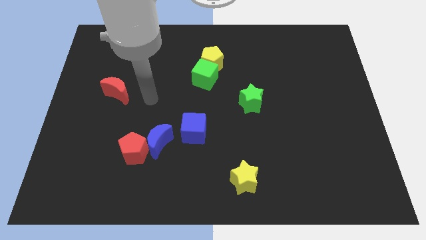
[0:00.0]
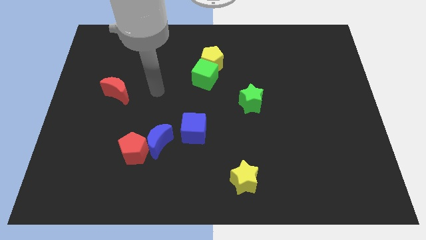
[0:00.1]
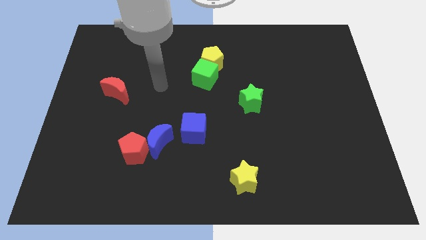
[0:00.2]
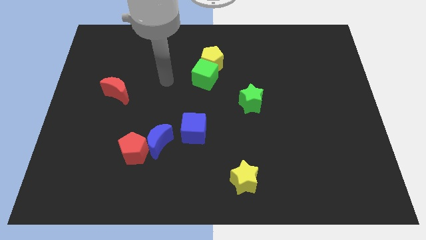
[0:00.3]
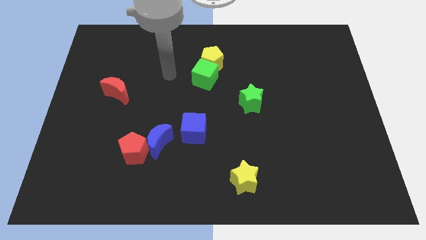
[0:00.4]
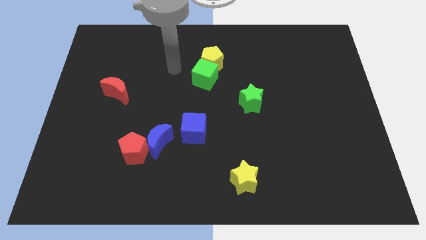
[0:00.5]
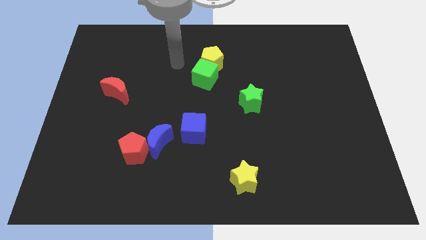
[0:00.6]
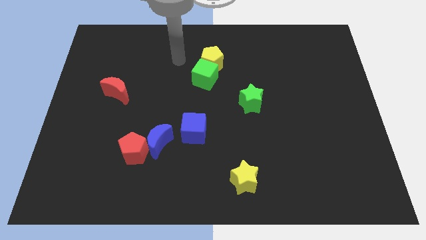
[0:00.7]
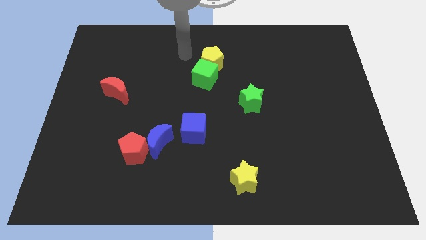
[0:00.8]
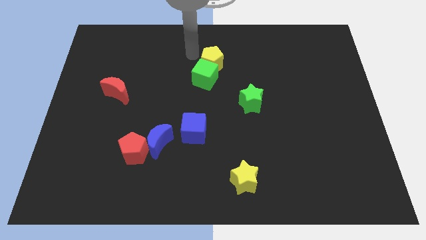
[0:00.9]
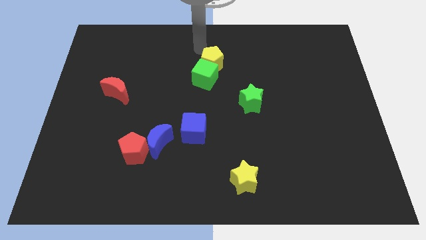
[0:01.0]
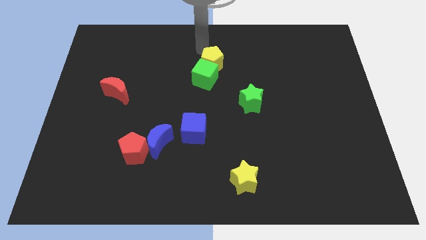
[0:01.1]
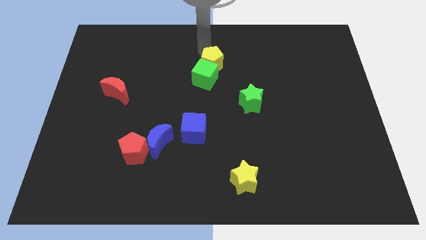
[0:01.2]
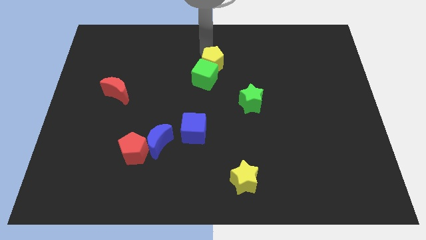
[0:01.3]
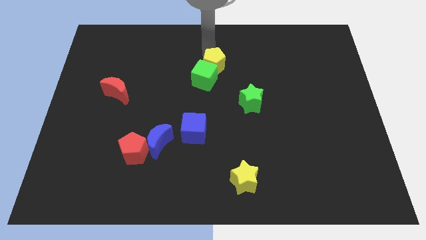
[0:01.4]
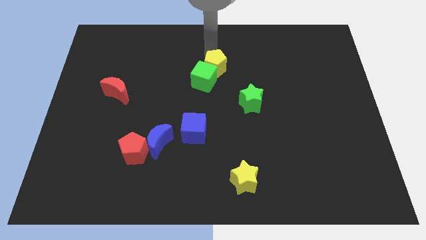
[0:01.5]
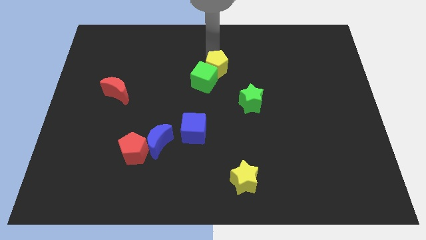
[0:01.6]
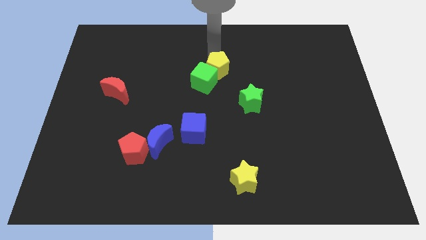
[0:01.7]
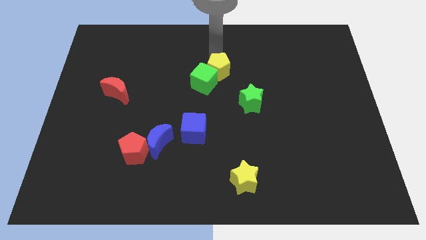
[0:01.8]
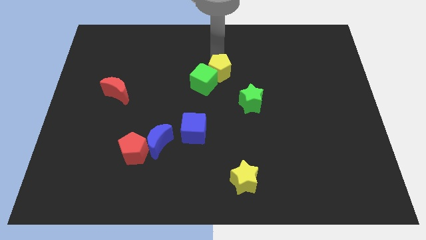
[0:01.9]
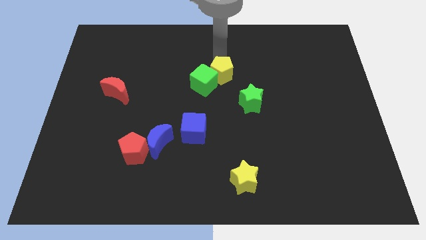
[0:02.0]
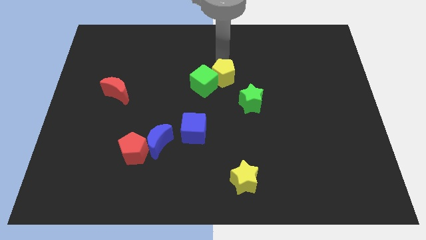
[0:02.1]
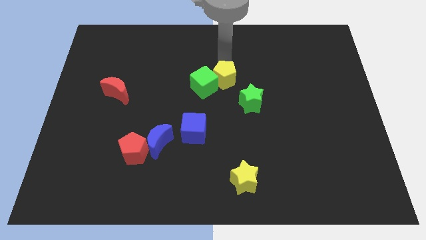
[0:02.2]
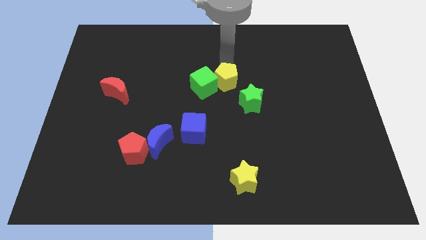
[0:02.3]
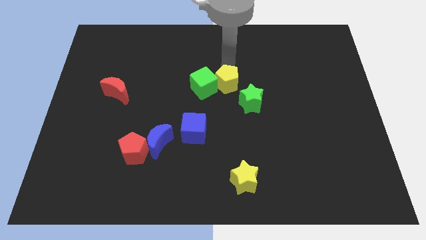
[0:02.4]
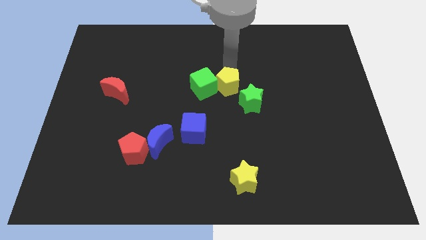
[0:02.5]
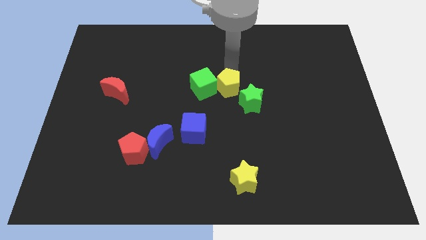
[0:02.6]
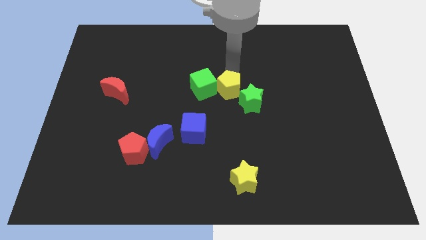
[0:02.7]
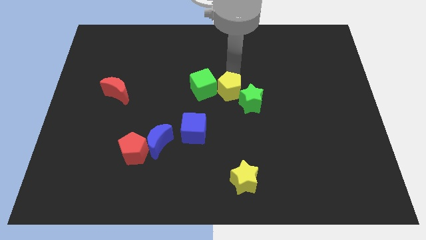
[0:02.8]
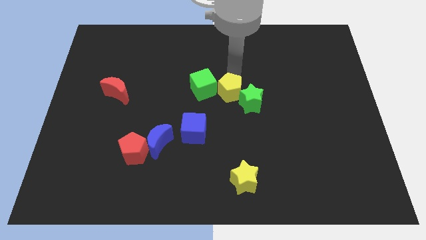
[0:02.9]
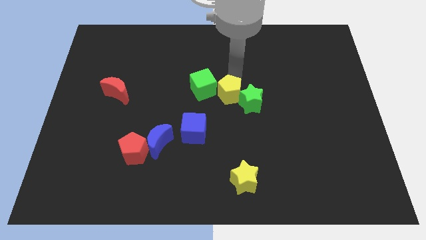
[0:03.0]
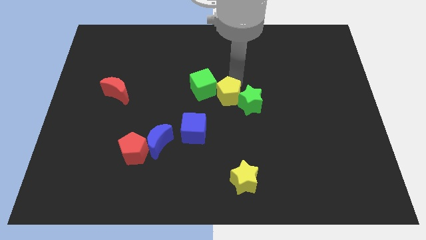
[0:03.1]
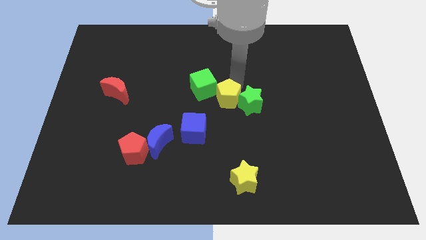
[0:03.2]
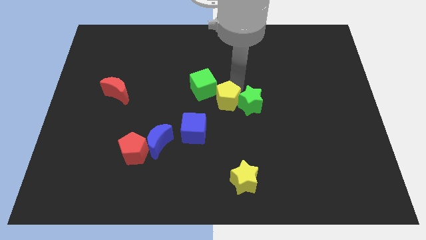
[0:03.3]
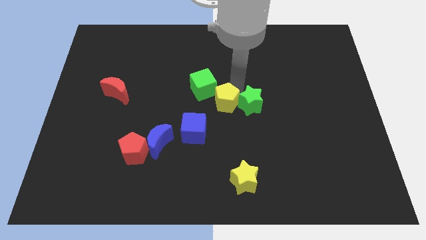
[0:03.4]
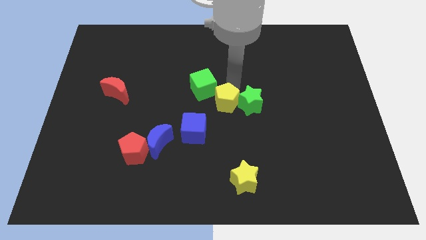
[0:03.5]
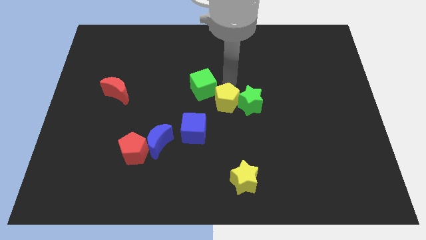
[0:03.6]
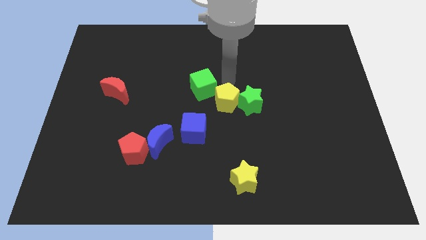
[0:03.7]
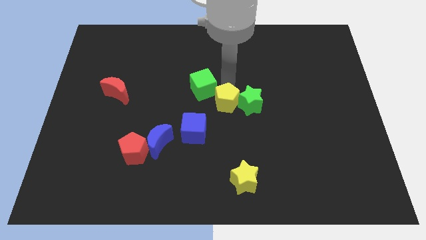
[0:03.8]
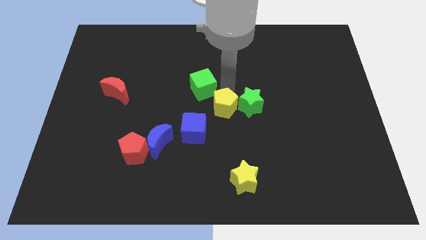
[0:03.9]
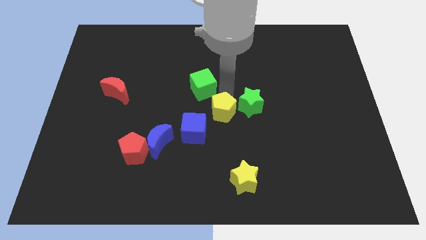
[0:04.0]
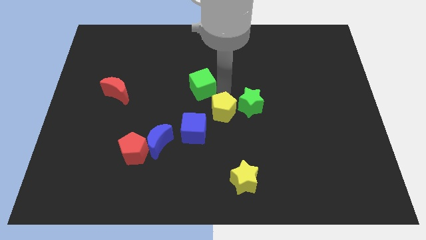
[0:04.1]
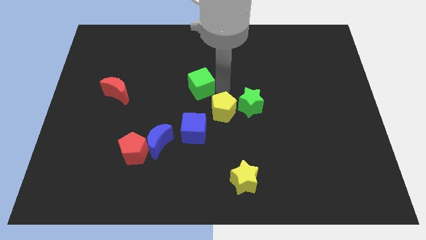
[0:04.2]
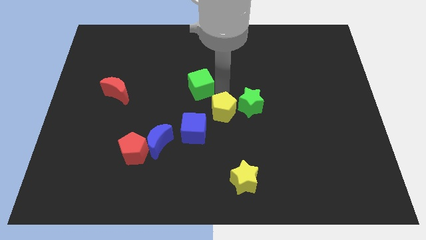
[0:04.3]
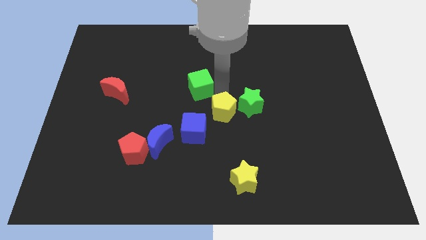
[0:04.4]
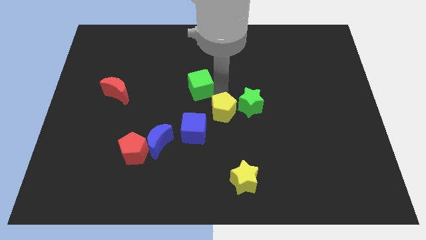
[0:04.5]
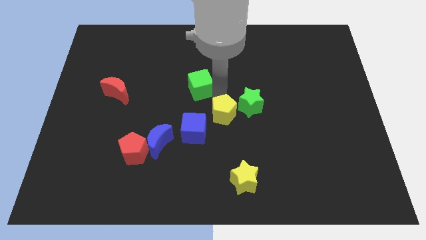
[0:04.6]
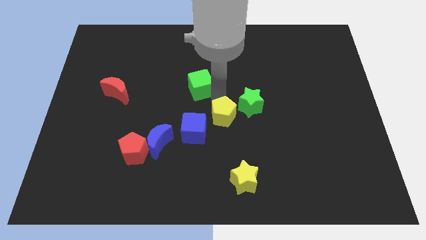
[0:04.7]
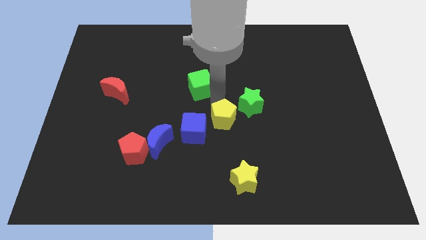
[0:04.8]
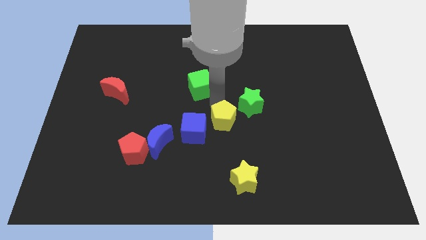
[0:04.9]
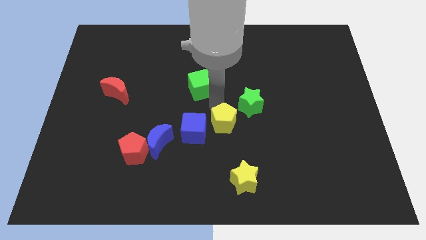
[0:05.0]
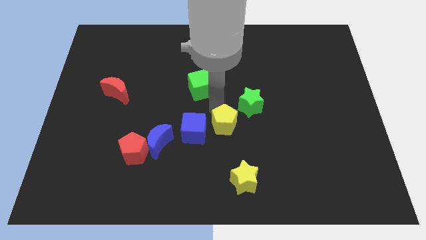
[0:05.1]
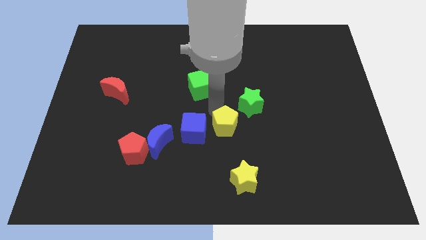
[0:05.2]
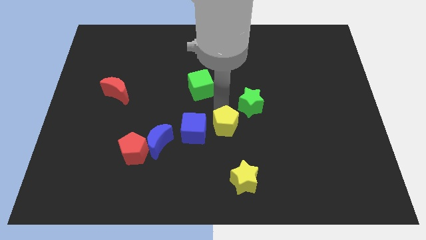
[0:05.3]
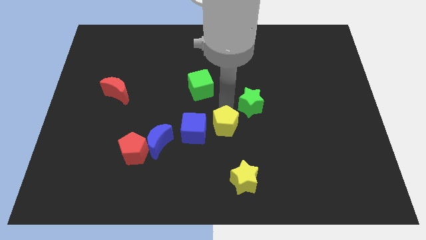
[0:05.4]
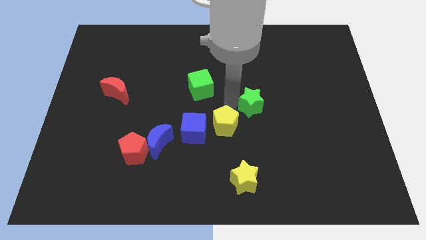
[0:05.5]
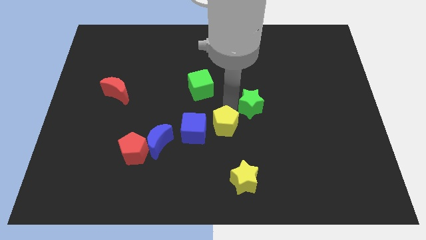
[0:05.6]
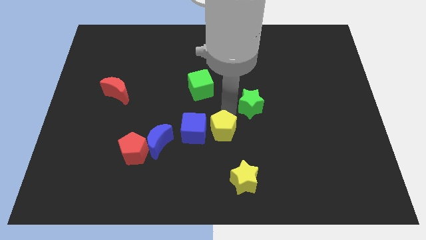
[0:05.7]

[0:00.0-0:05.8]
put the yellow pentagon diagonally down and to the right of the blue cube

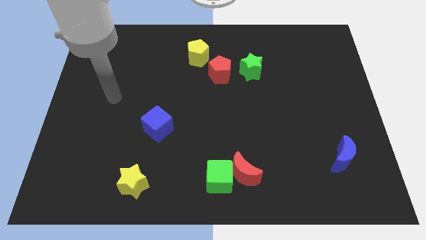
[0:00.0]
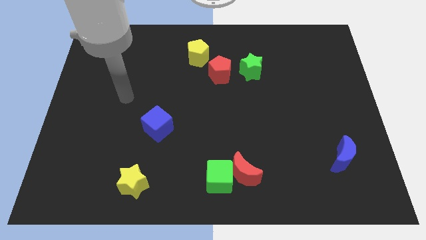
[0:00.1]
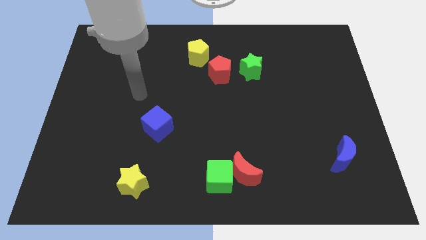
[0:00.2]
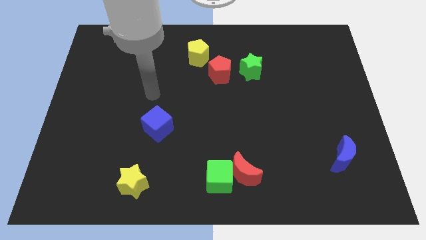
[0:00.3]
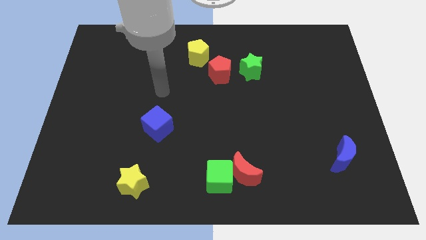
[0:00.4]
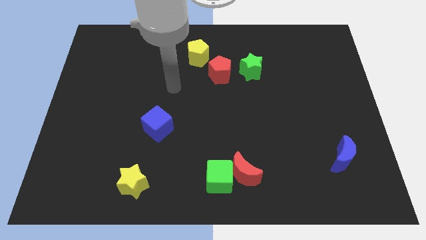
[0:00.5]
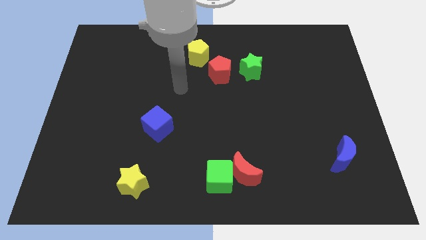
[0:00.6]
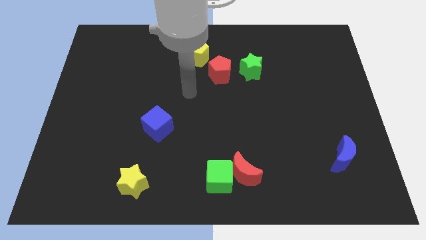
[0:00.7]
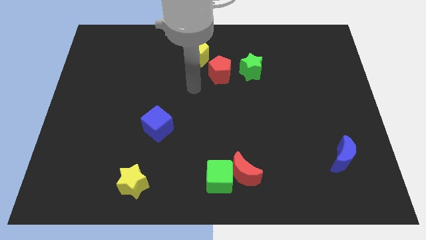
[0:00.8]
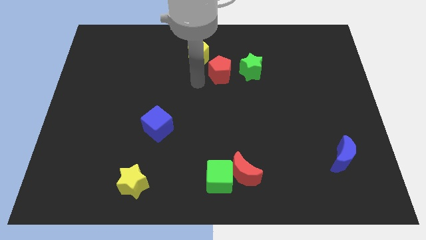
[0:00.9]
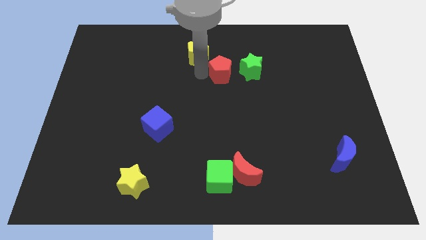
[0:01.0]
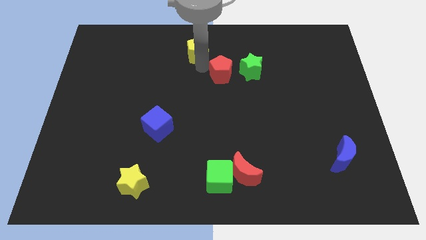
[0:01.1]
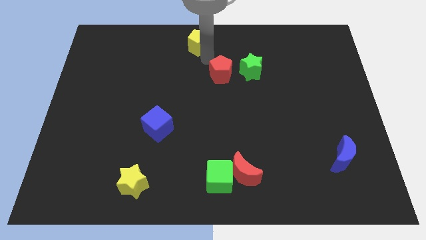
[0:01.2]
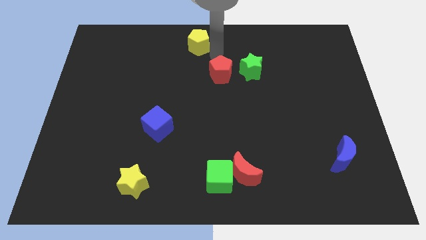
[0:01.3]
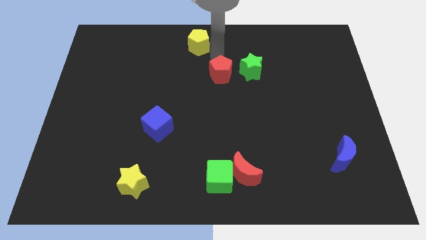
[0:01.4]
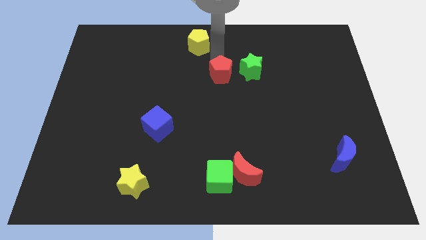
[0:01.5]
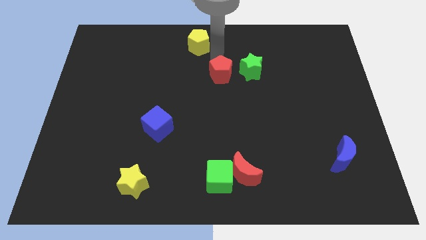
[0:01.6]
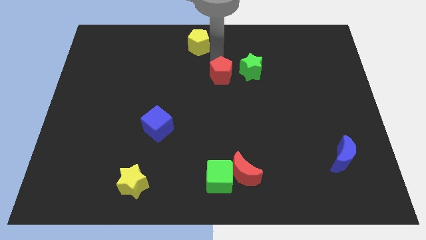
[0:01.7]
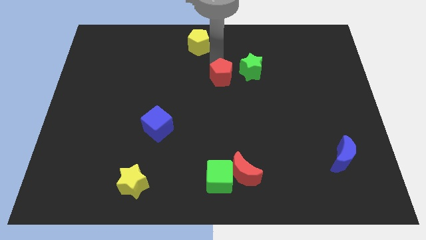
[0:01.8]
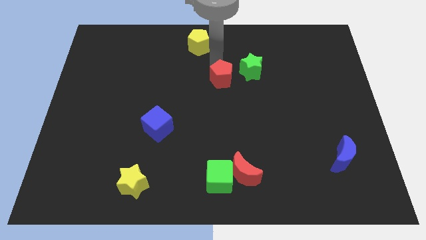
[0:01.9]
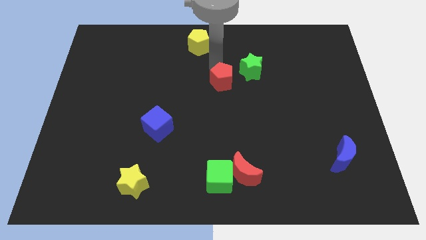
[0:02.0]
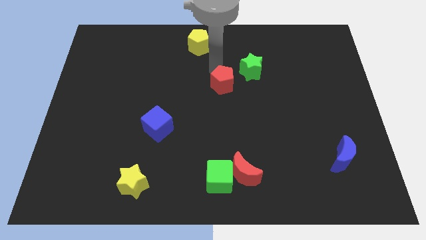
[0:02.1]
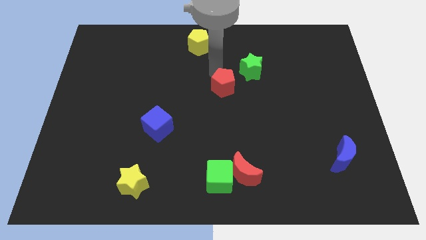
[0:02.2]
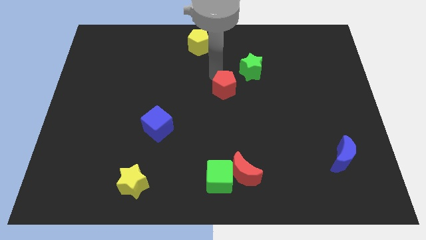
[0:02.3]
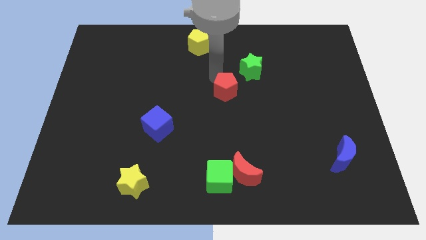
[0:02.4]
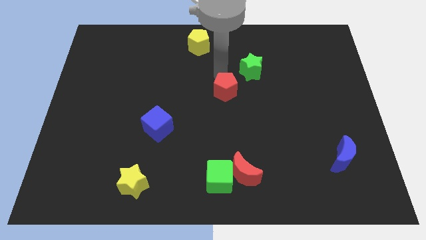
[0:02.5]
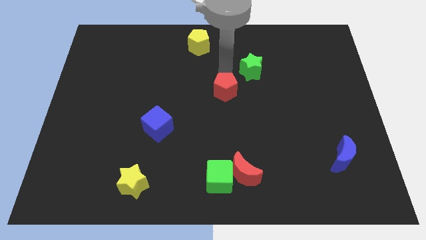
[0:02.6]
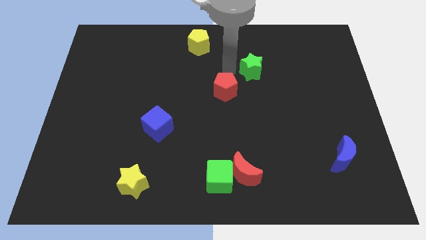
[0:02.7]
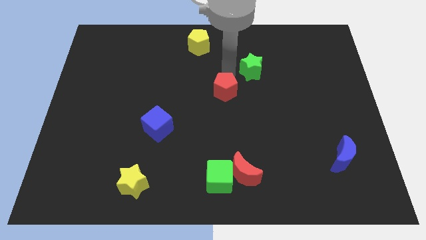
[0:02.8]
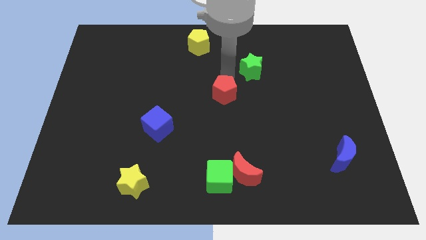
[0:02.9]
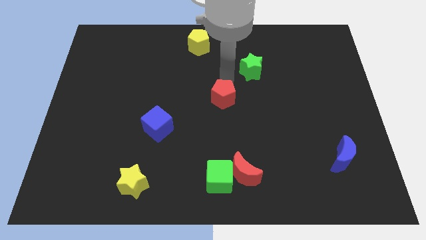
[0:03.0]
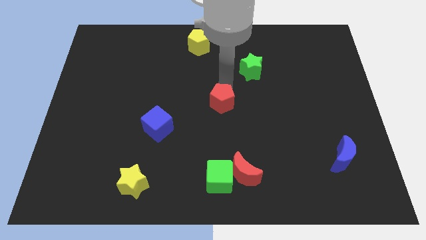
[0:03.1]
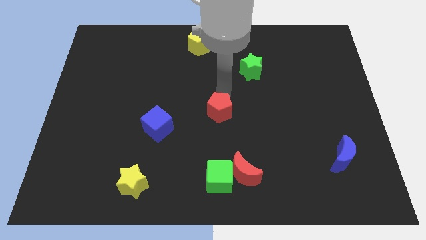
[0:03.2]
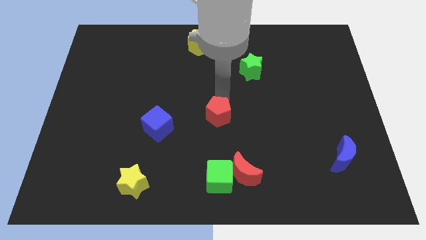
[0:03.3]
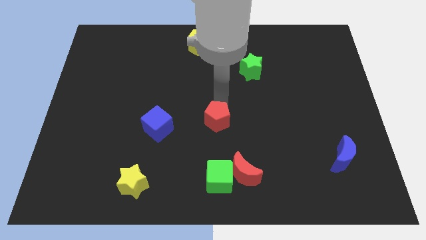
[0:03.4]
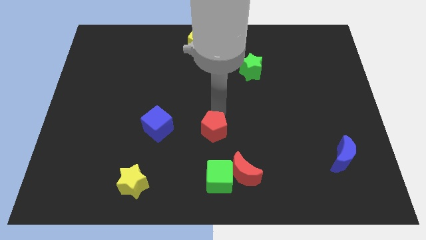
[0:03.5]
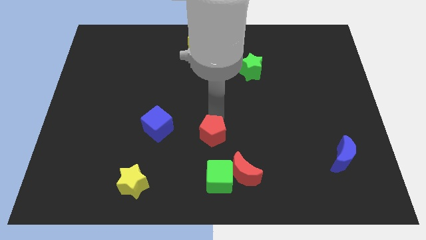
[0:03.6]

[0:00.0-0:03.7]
push the red pentagon to the top left of the red moon
